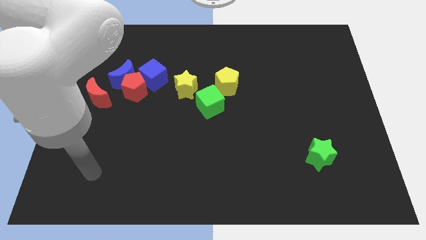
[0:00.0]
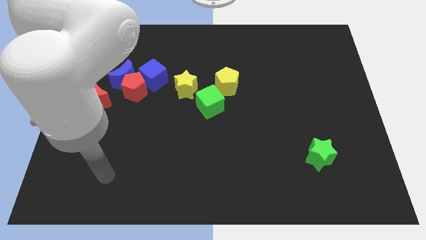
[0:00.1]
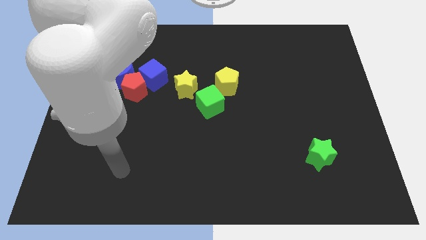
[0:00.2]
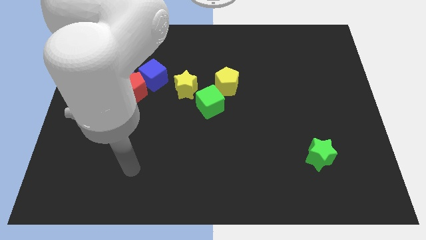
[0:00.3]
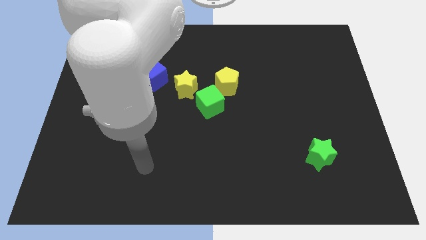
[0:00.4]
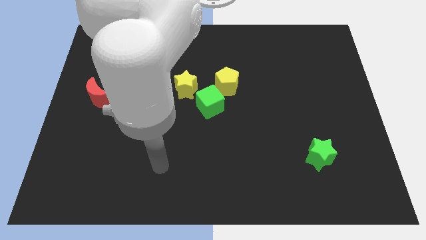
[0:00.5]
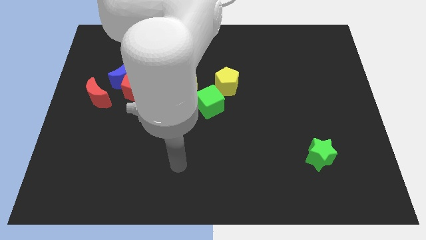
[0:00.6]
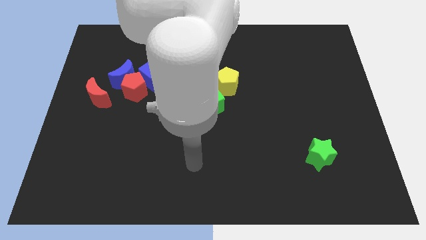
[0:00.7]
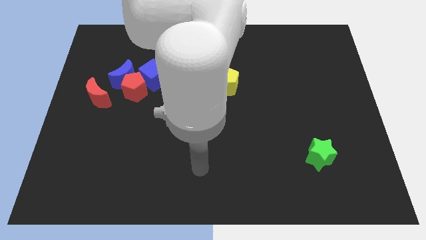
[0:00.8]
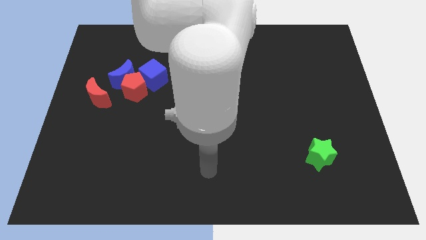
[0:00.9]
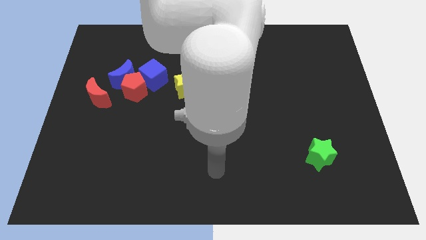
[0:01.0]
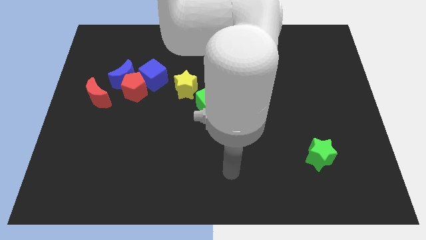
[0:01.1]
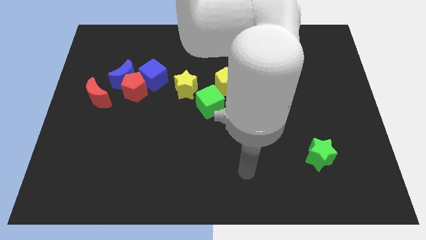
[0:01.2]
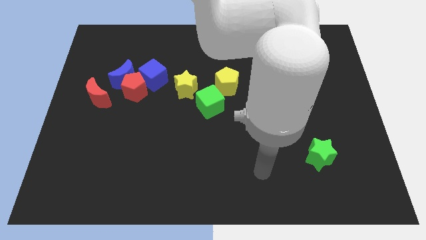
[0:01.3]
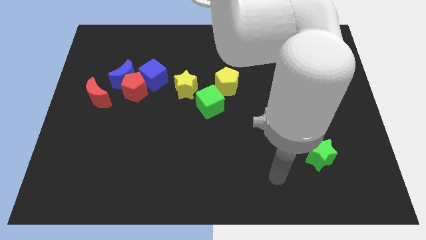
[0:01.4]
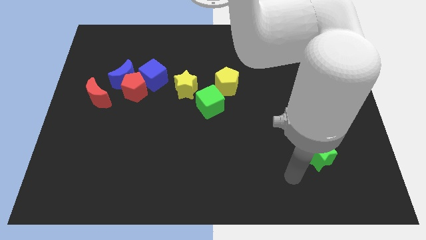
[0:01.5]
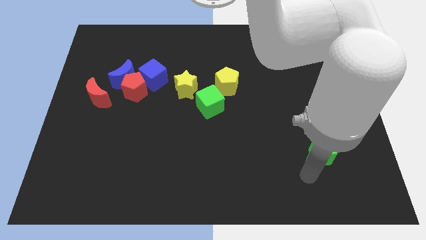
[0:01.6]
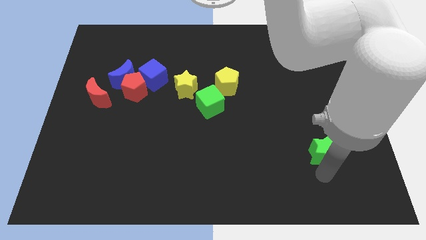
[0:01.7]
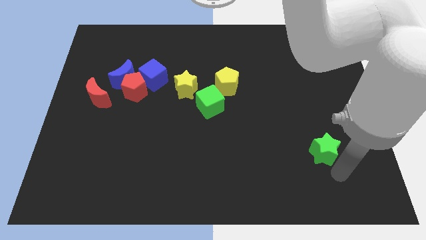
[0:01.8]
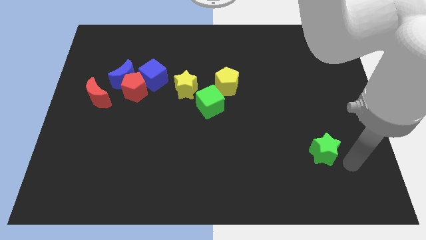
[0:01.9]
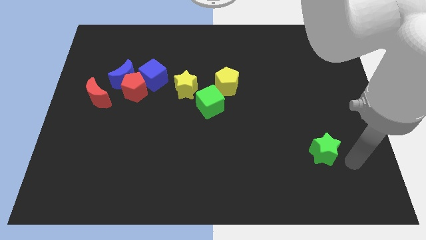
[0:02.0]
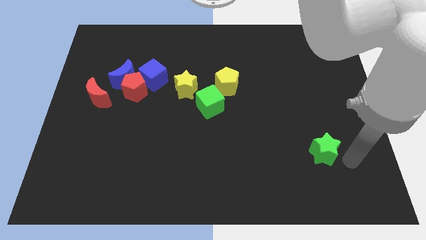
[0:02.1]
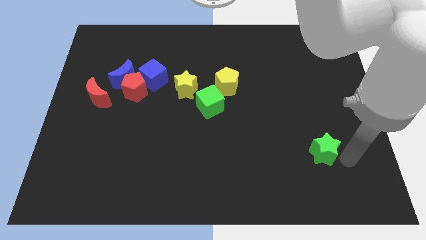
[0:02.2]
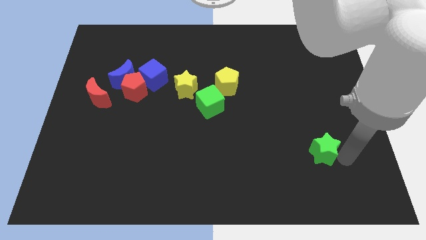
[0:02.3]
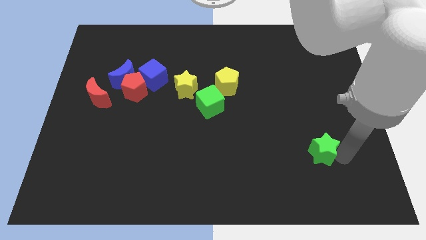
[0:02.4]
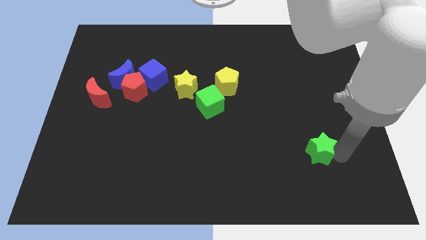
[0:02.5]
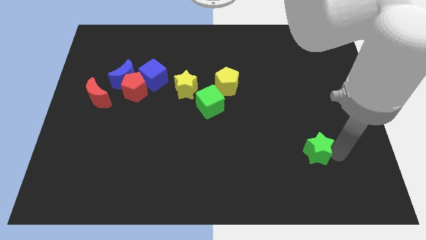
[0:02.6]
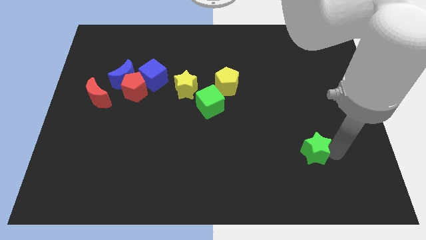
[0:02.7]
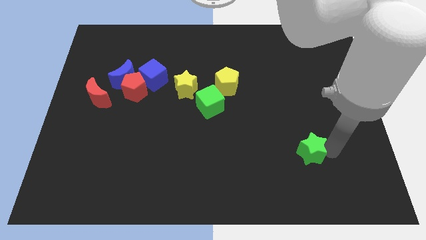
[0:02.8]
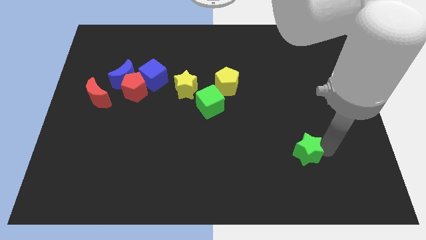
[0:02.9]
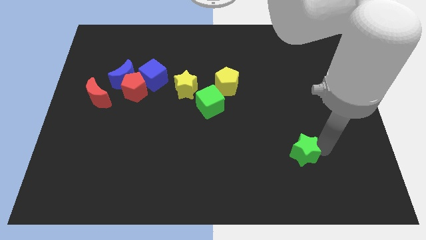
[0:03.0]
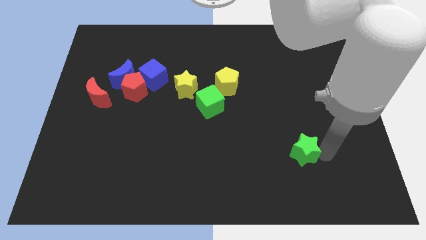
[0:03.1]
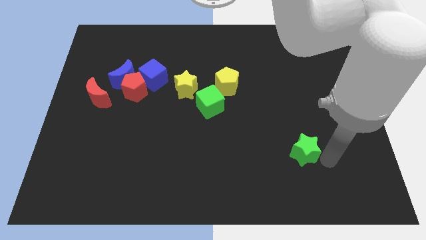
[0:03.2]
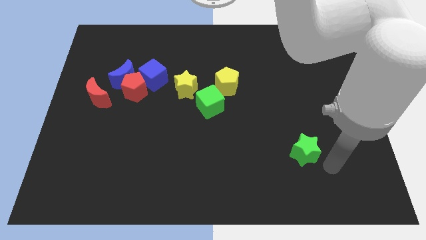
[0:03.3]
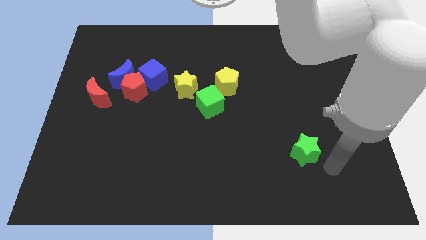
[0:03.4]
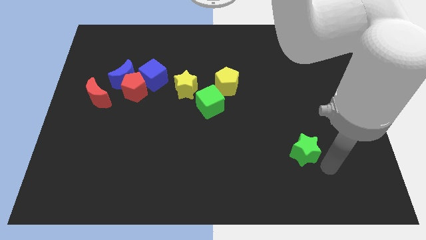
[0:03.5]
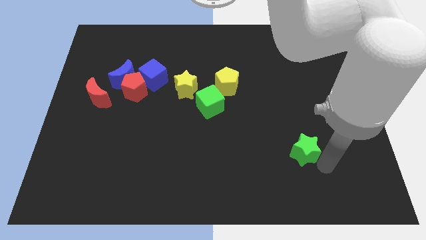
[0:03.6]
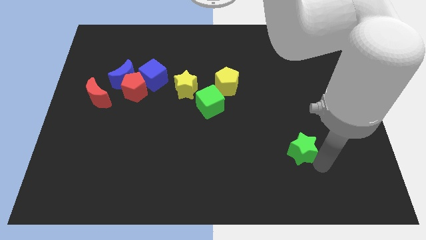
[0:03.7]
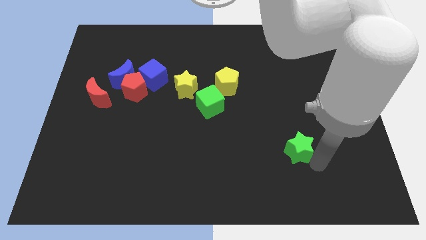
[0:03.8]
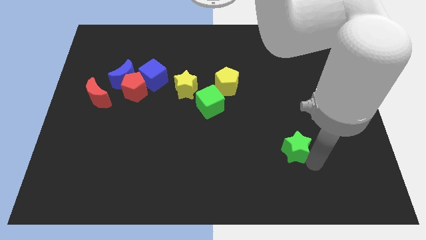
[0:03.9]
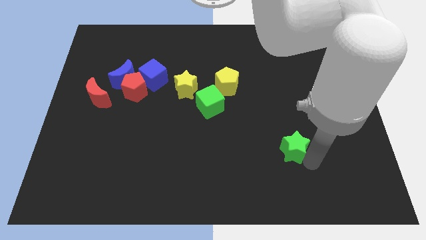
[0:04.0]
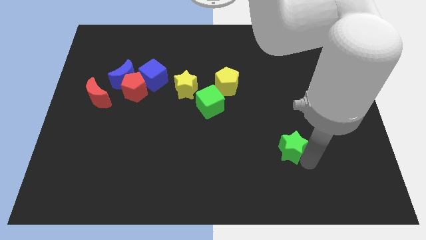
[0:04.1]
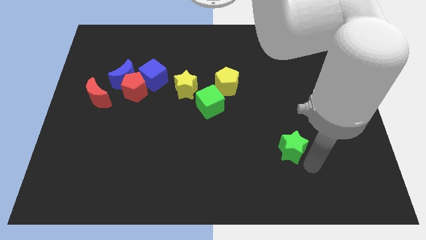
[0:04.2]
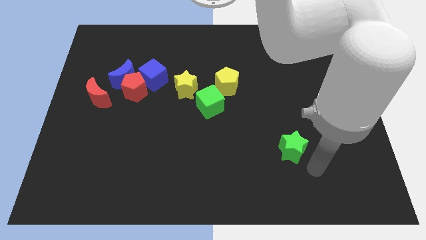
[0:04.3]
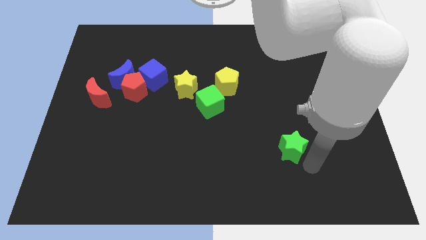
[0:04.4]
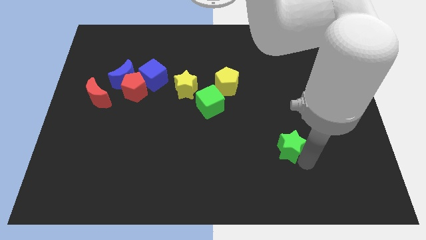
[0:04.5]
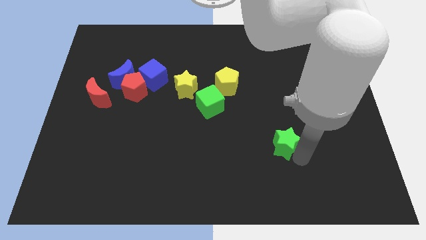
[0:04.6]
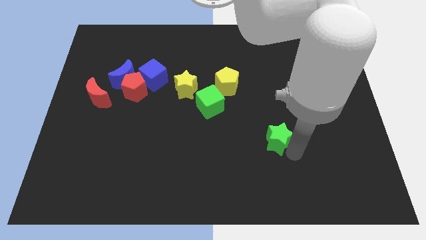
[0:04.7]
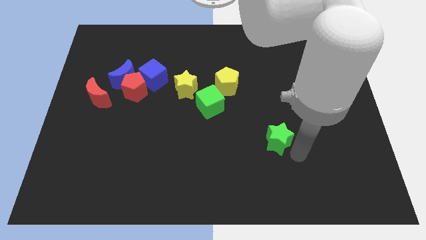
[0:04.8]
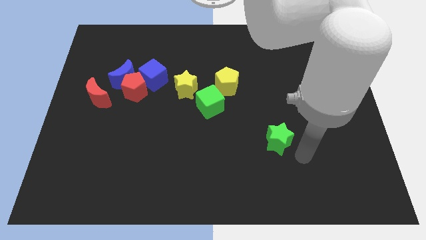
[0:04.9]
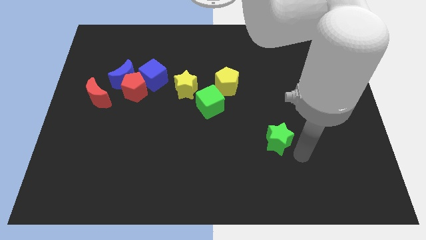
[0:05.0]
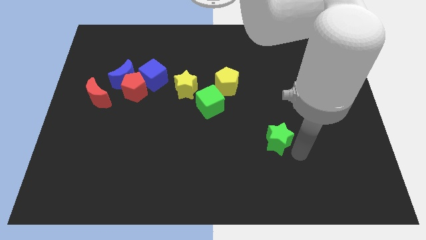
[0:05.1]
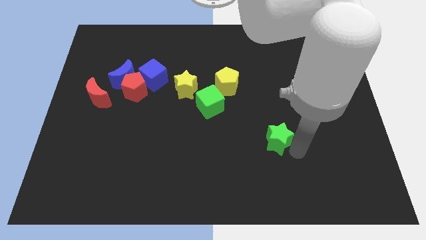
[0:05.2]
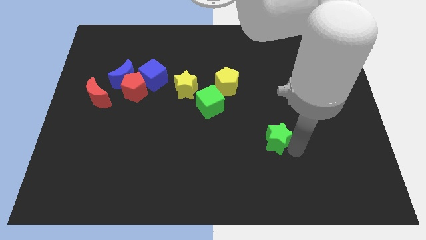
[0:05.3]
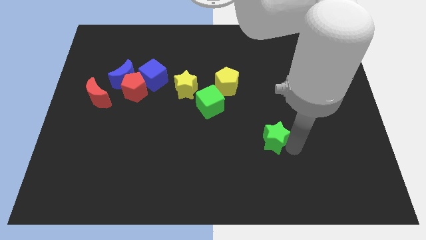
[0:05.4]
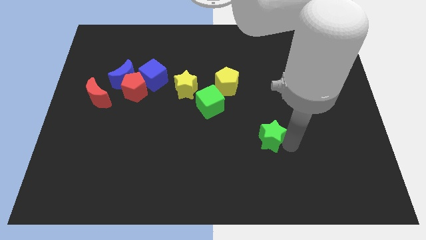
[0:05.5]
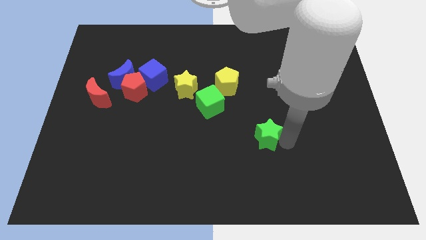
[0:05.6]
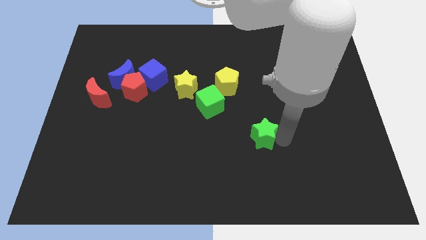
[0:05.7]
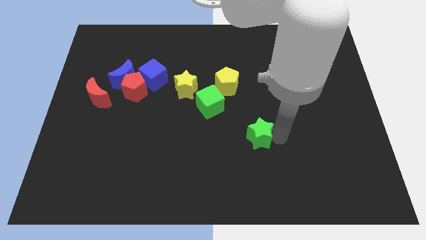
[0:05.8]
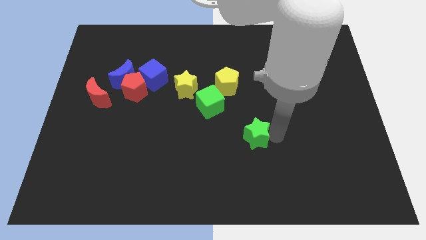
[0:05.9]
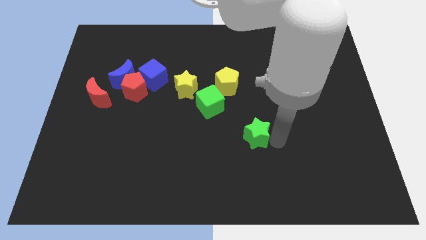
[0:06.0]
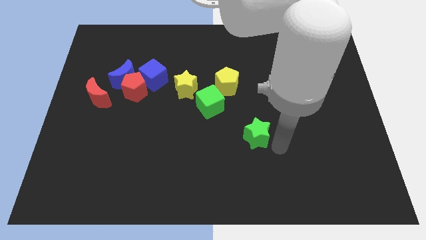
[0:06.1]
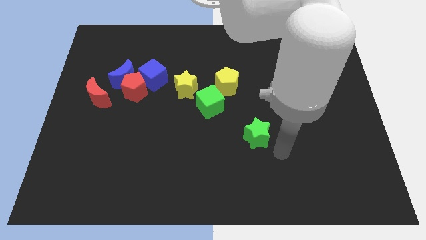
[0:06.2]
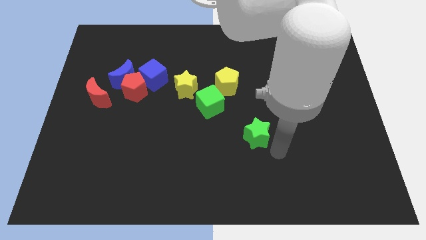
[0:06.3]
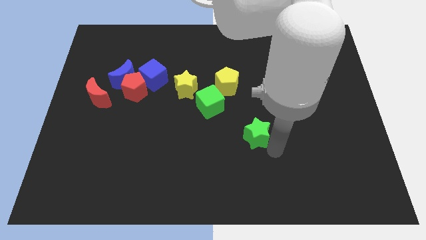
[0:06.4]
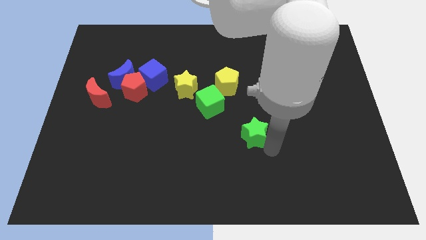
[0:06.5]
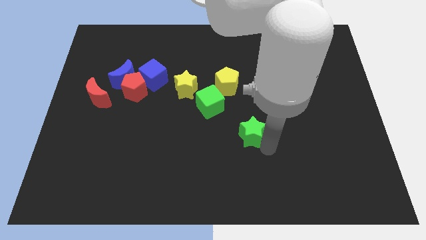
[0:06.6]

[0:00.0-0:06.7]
put the green star to the bottom right side of the green cube
